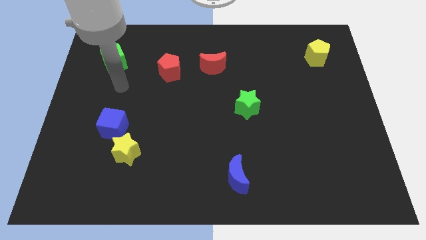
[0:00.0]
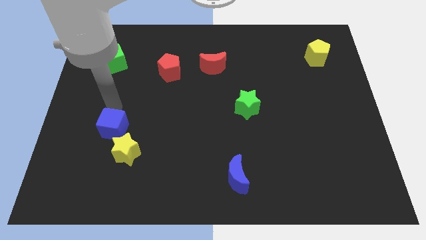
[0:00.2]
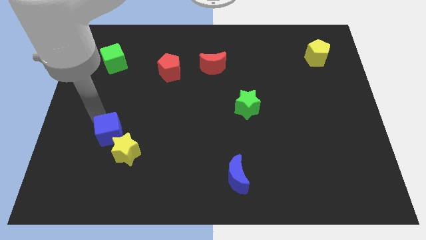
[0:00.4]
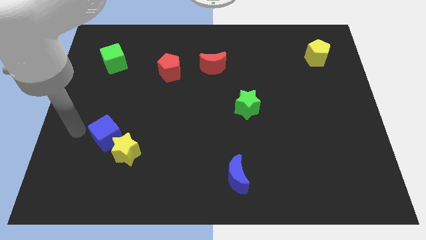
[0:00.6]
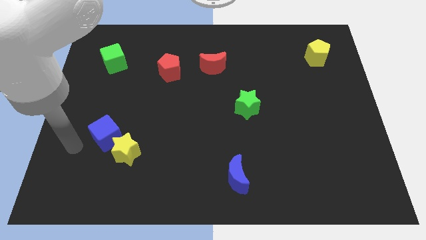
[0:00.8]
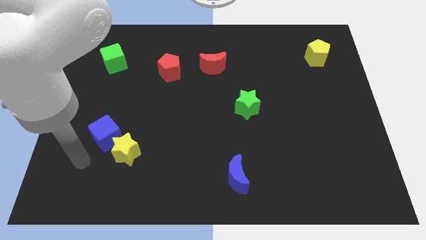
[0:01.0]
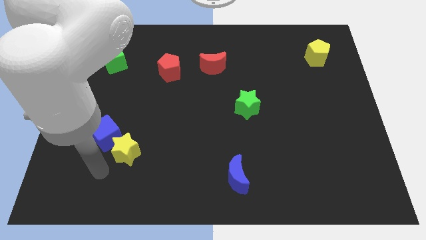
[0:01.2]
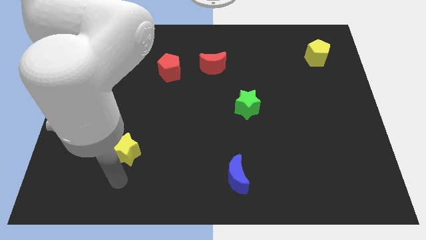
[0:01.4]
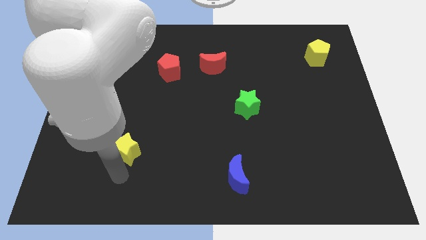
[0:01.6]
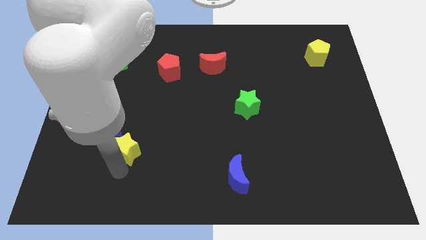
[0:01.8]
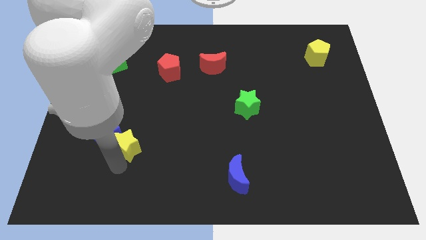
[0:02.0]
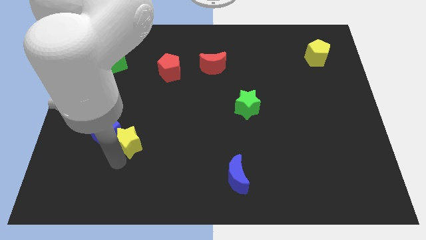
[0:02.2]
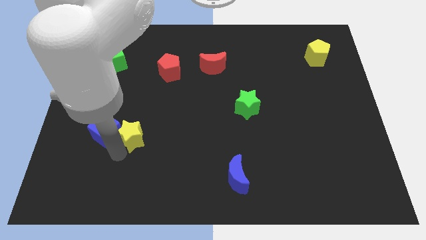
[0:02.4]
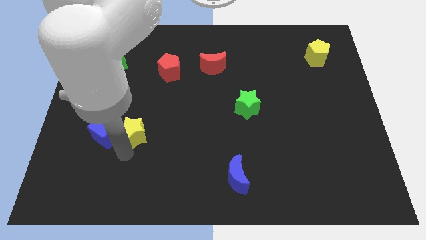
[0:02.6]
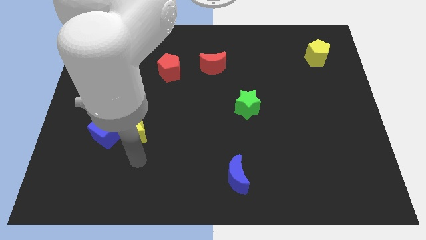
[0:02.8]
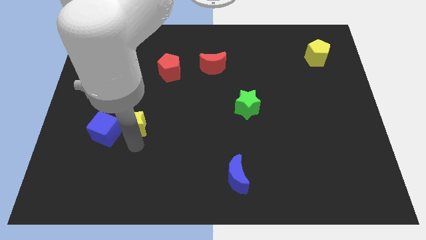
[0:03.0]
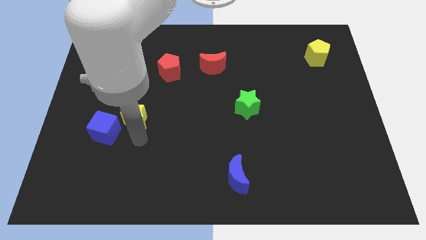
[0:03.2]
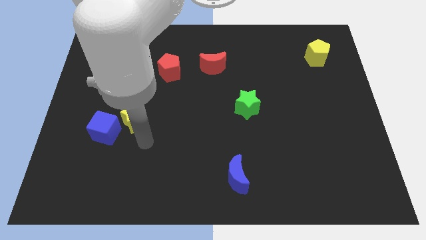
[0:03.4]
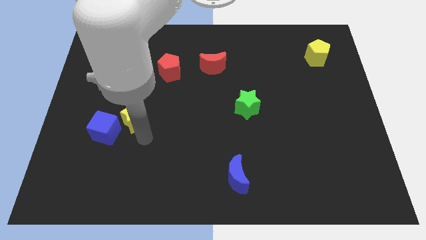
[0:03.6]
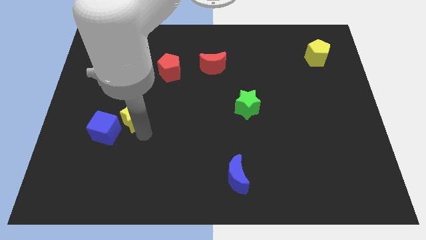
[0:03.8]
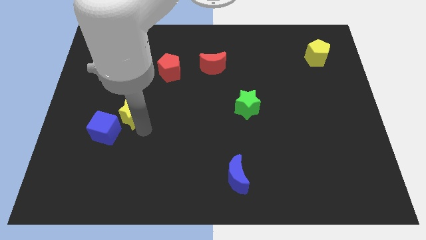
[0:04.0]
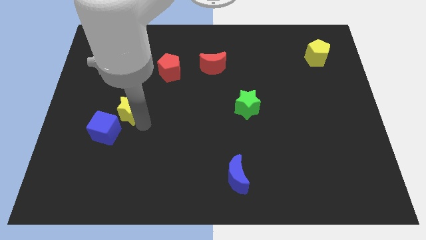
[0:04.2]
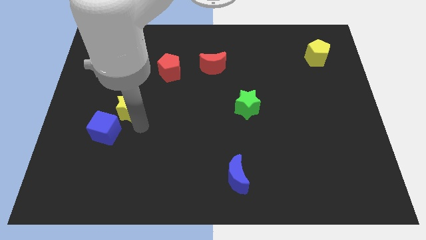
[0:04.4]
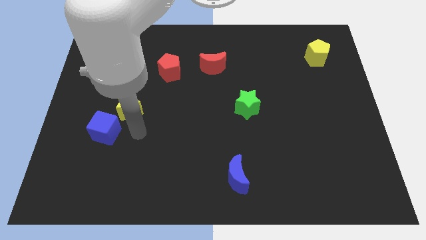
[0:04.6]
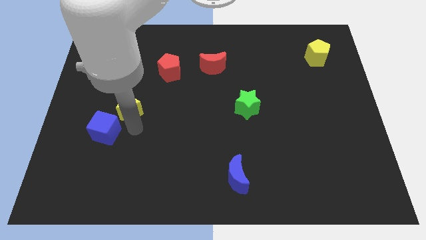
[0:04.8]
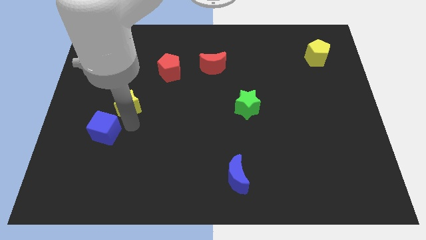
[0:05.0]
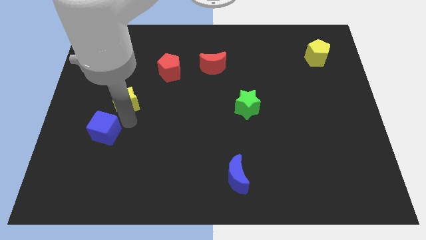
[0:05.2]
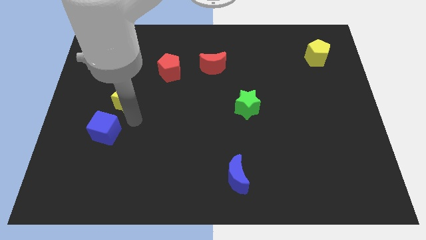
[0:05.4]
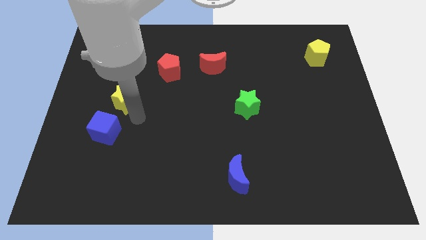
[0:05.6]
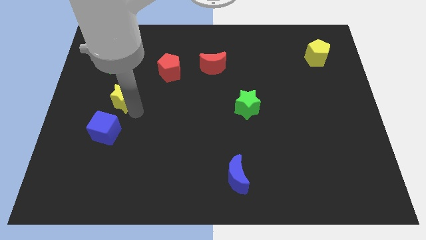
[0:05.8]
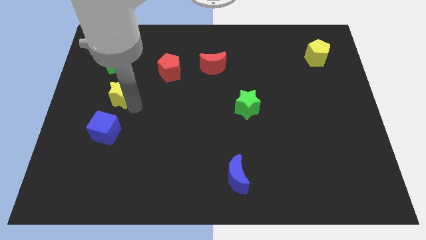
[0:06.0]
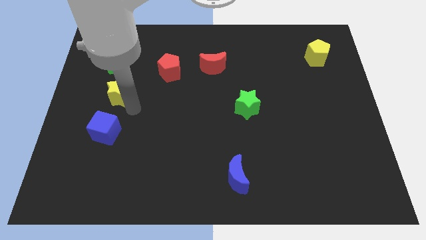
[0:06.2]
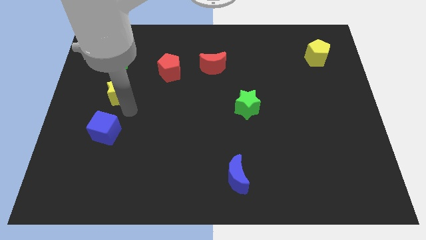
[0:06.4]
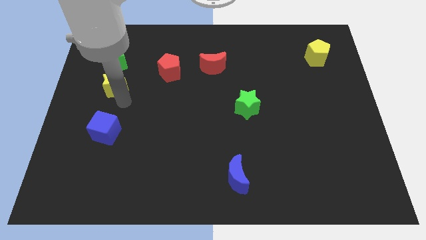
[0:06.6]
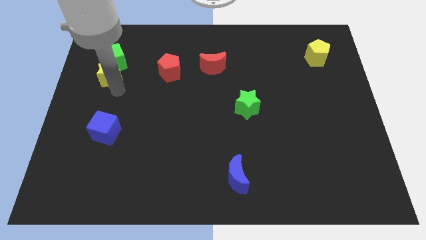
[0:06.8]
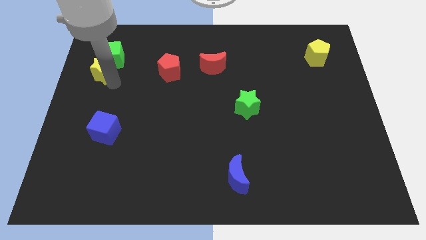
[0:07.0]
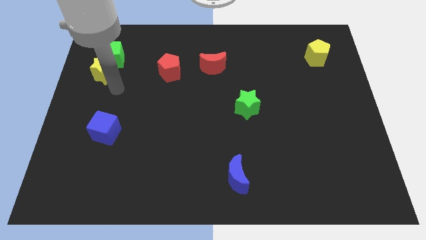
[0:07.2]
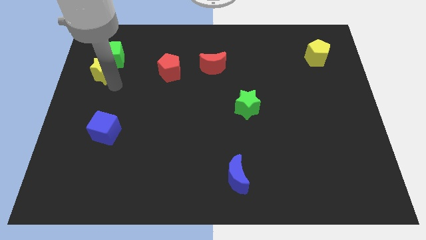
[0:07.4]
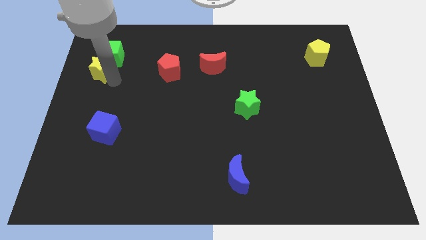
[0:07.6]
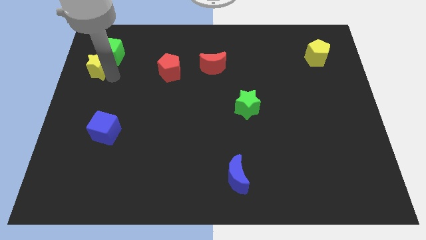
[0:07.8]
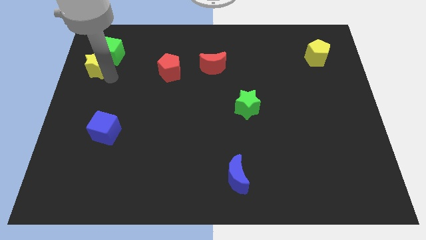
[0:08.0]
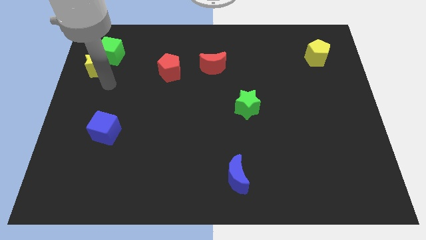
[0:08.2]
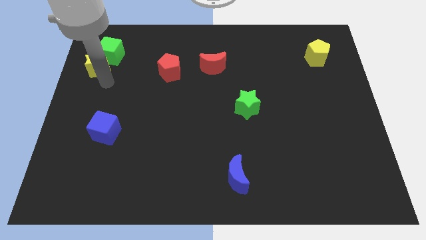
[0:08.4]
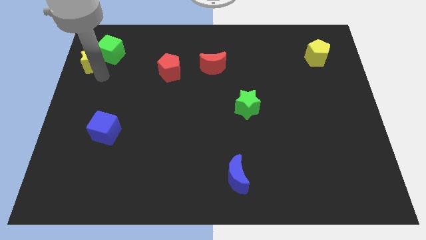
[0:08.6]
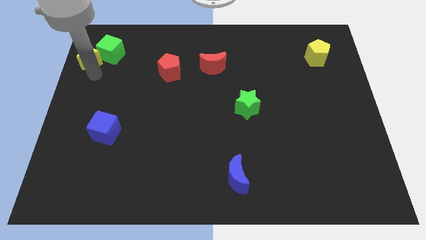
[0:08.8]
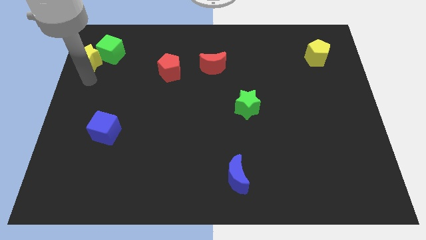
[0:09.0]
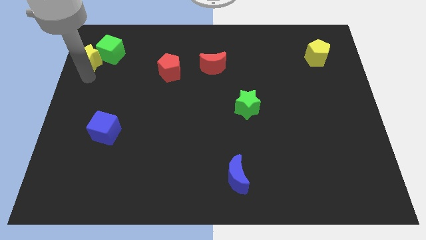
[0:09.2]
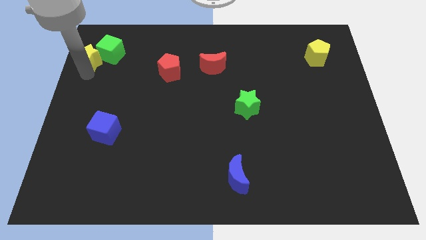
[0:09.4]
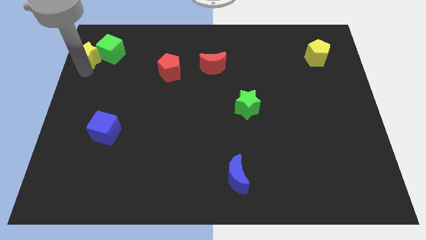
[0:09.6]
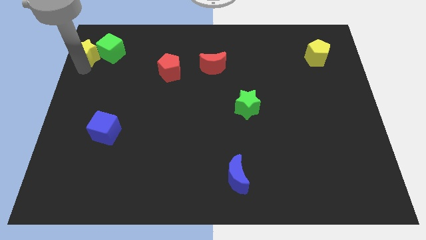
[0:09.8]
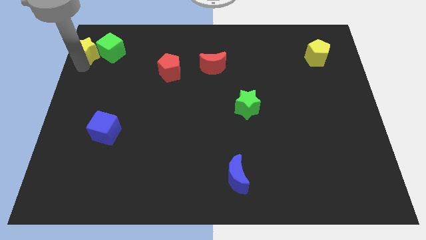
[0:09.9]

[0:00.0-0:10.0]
push the yellow star to the top left corner
